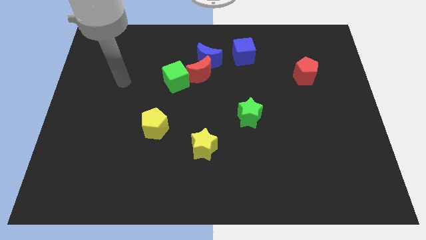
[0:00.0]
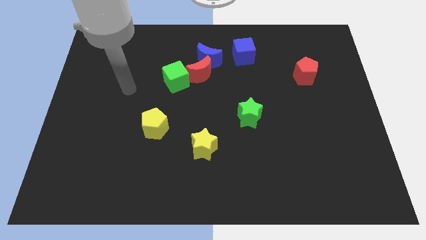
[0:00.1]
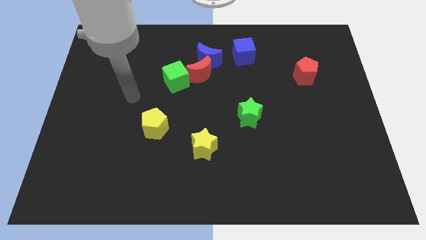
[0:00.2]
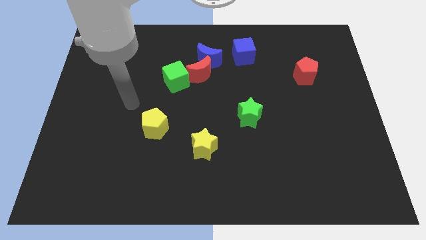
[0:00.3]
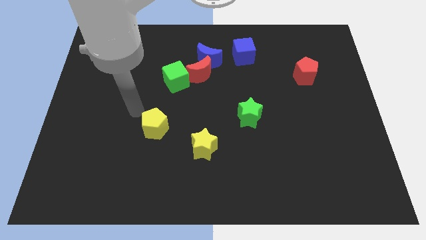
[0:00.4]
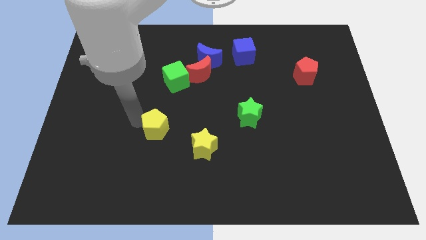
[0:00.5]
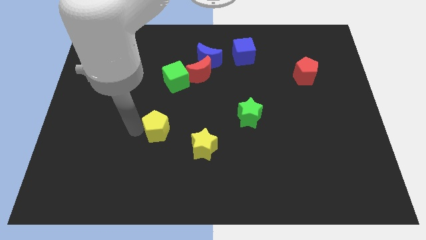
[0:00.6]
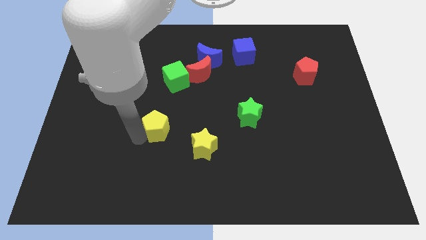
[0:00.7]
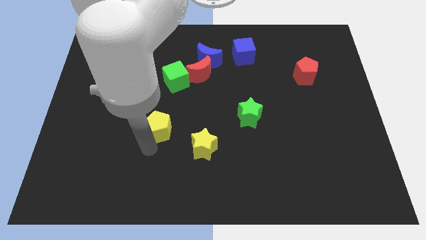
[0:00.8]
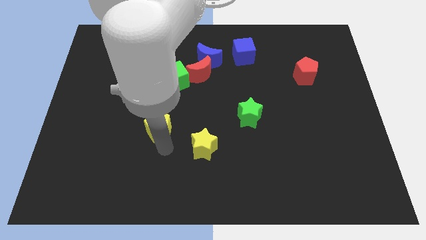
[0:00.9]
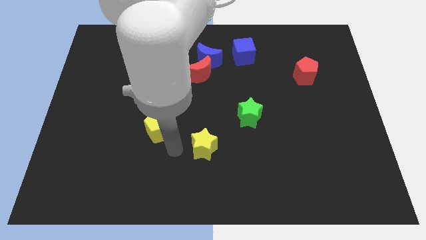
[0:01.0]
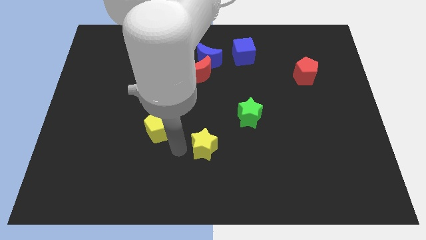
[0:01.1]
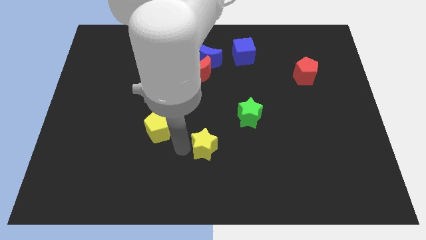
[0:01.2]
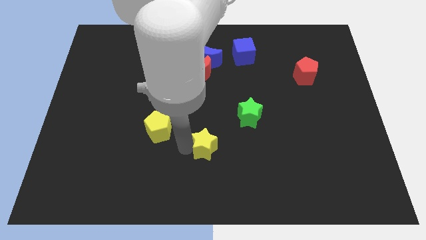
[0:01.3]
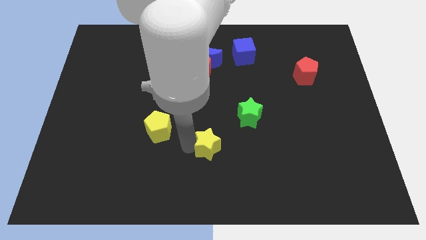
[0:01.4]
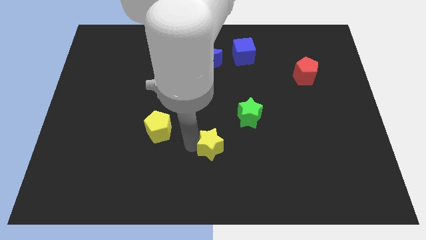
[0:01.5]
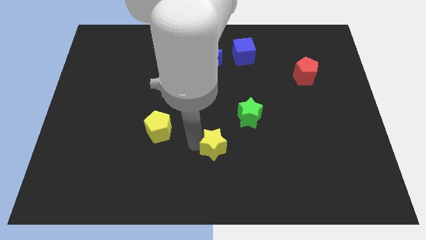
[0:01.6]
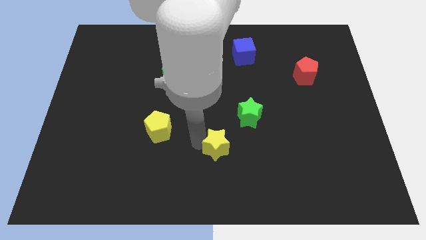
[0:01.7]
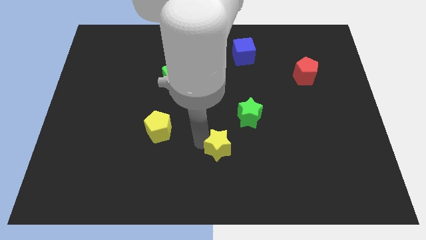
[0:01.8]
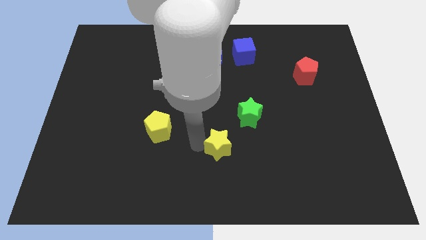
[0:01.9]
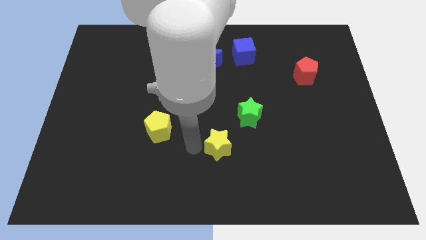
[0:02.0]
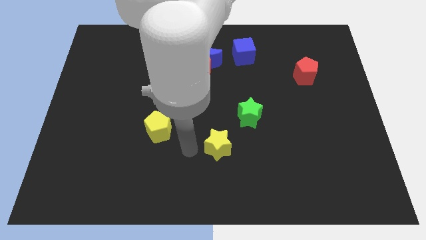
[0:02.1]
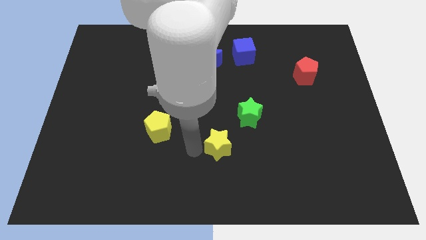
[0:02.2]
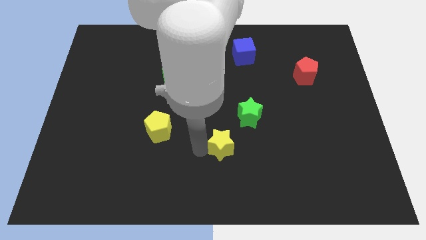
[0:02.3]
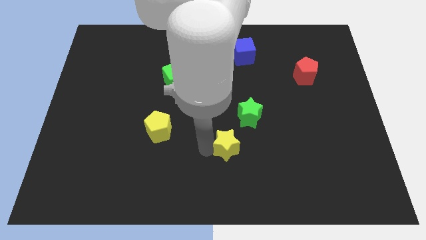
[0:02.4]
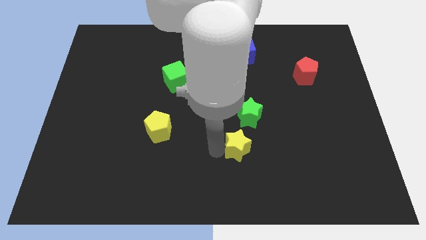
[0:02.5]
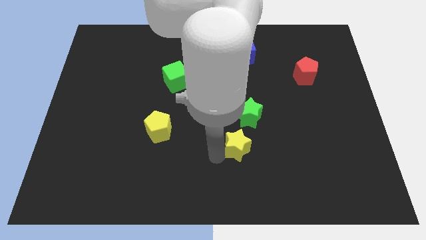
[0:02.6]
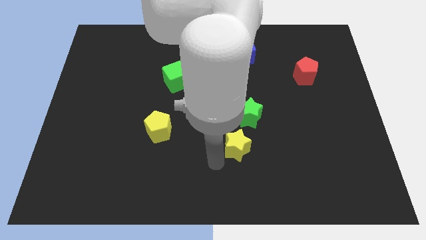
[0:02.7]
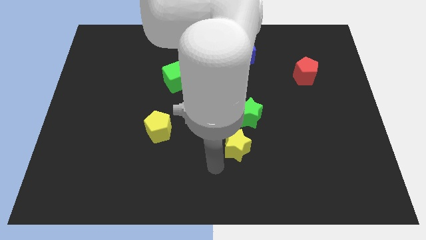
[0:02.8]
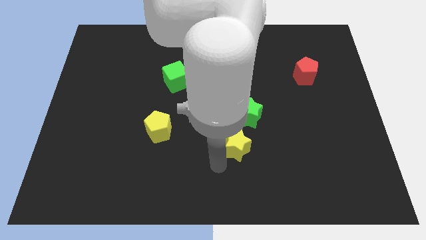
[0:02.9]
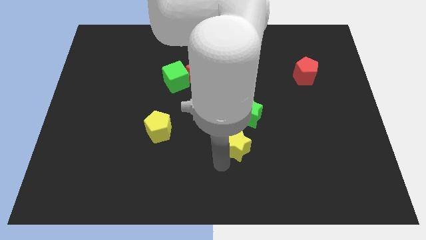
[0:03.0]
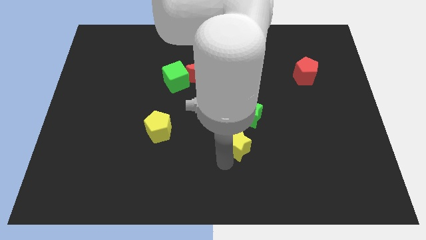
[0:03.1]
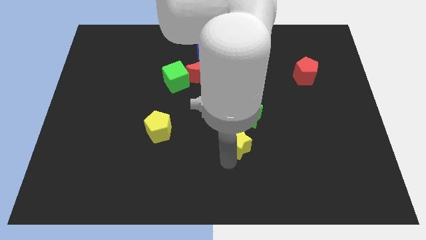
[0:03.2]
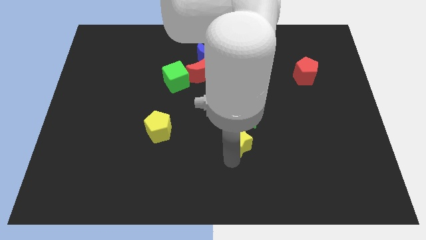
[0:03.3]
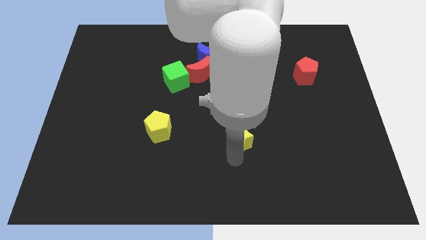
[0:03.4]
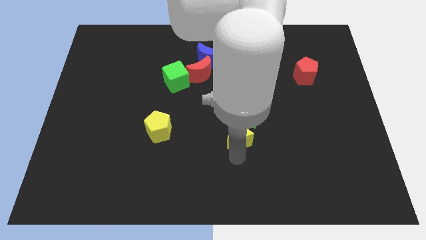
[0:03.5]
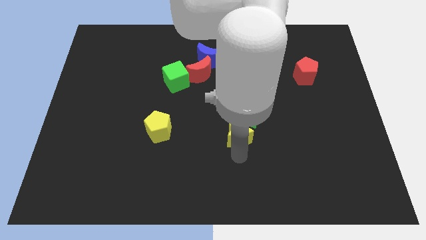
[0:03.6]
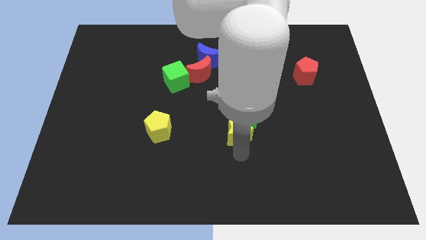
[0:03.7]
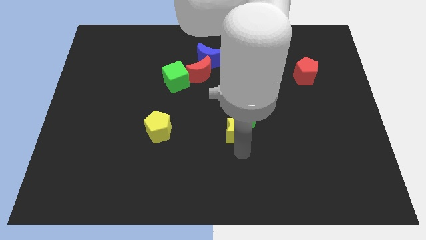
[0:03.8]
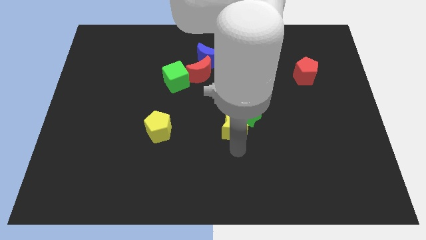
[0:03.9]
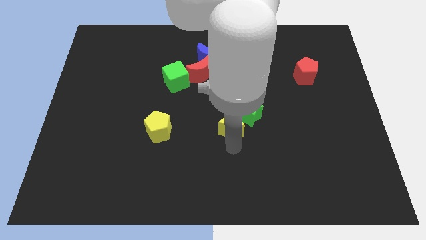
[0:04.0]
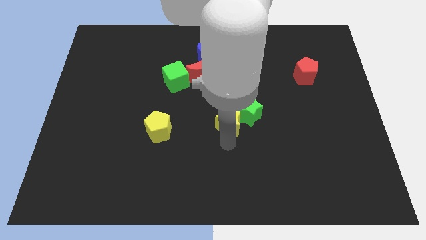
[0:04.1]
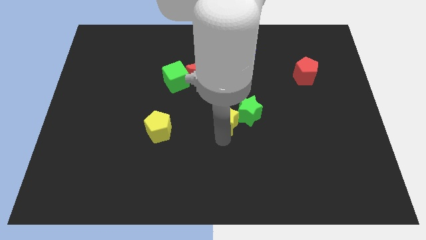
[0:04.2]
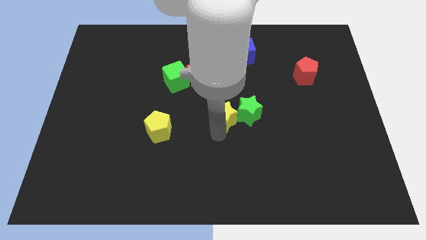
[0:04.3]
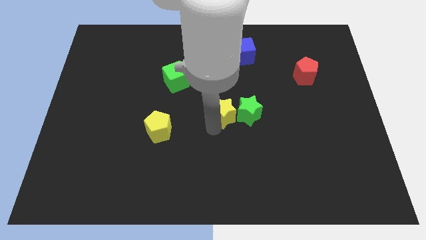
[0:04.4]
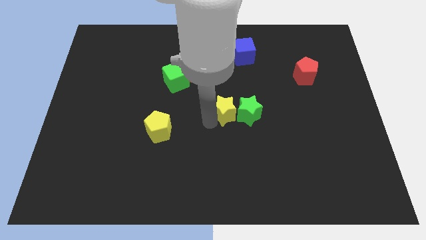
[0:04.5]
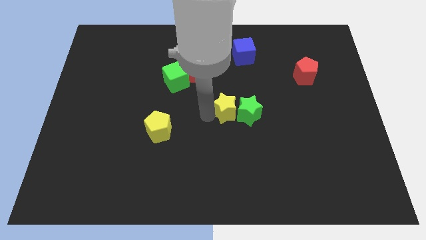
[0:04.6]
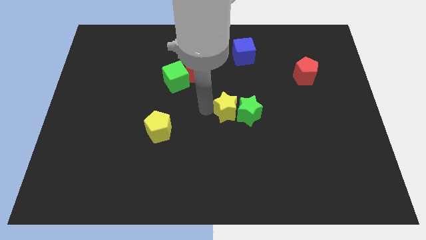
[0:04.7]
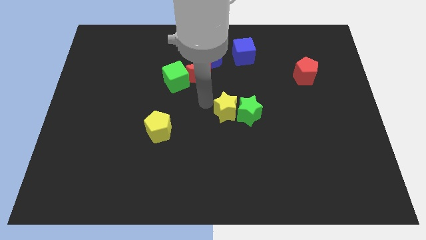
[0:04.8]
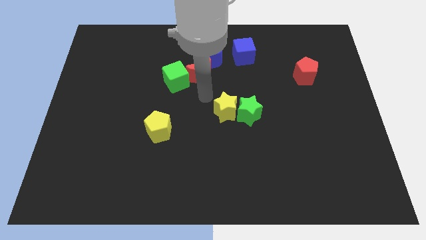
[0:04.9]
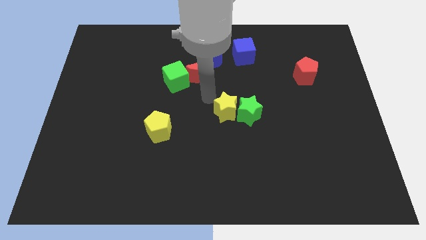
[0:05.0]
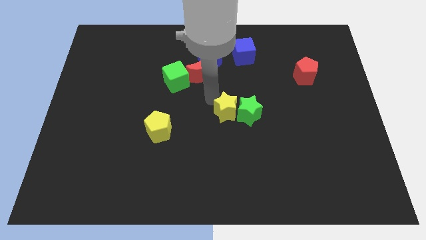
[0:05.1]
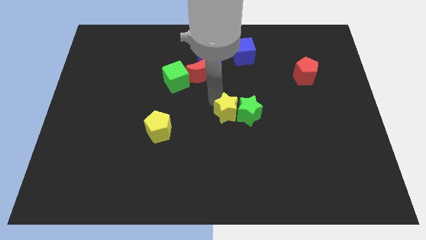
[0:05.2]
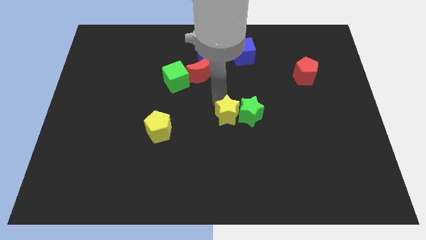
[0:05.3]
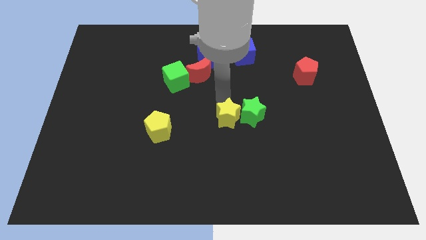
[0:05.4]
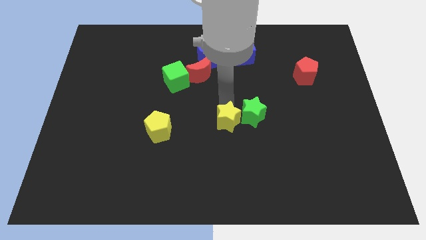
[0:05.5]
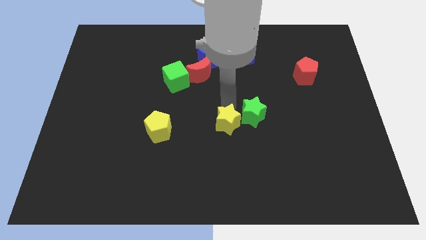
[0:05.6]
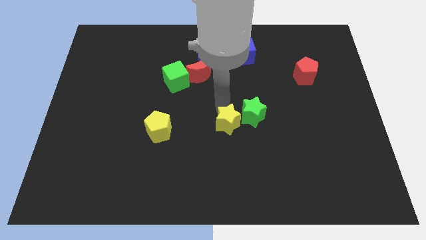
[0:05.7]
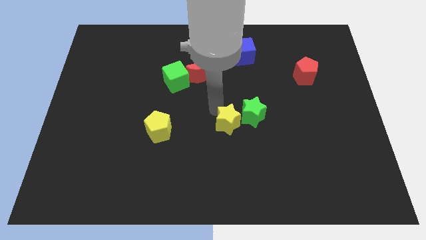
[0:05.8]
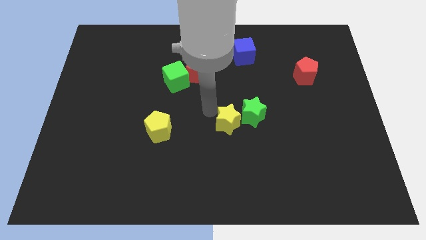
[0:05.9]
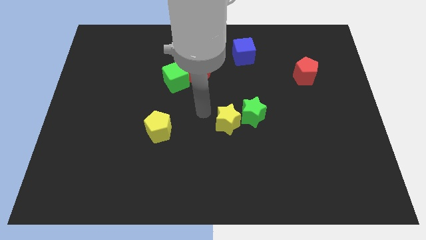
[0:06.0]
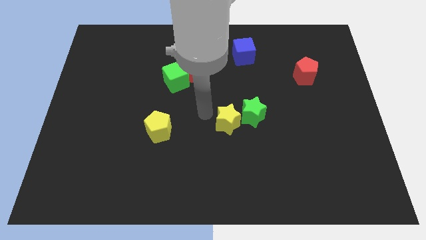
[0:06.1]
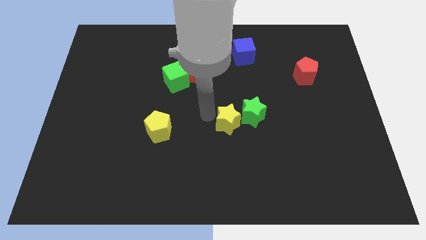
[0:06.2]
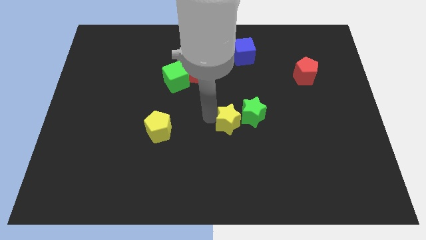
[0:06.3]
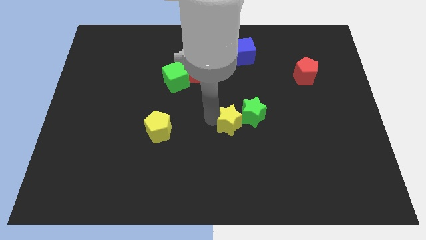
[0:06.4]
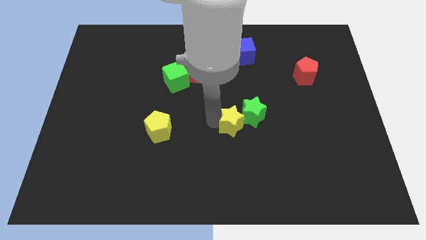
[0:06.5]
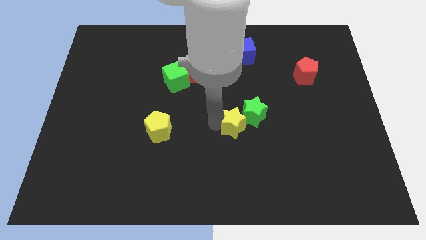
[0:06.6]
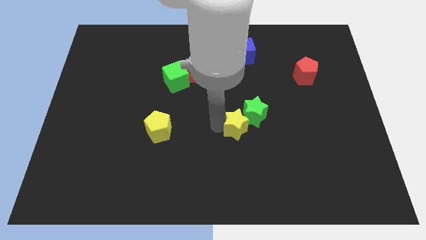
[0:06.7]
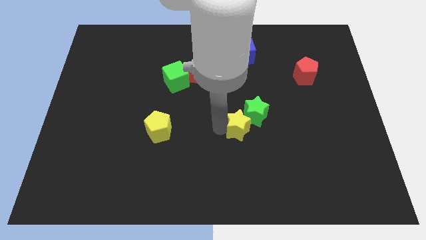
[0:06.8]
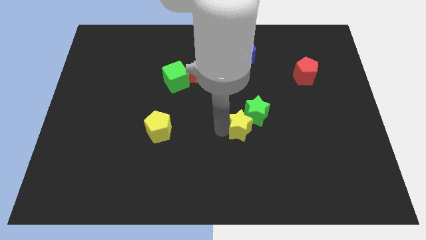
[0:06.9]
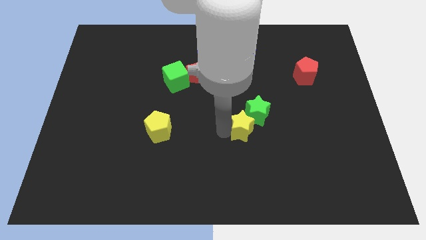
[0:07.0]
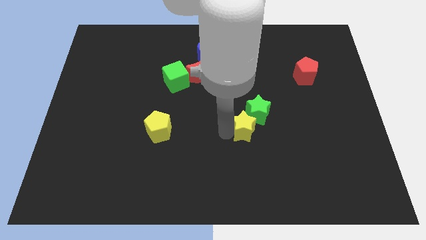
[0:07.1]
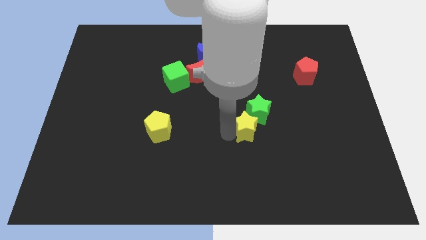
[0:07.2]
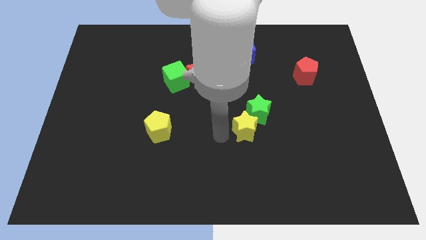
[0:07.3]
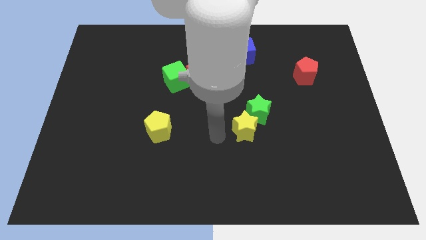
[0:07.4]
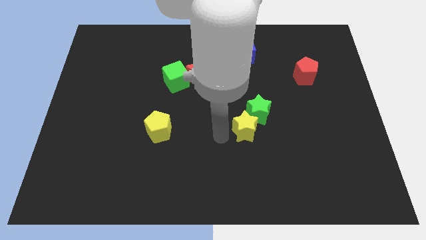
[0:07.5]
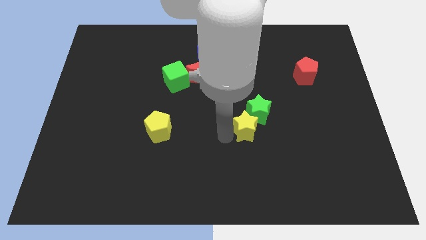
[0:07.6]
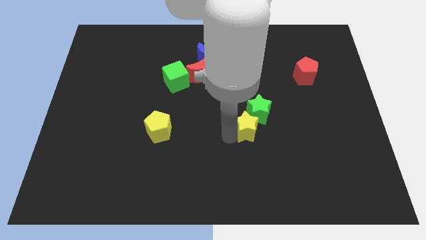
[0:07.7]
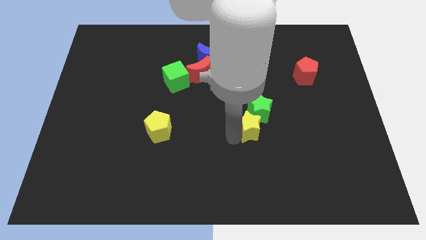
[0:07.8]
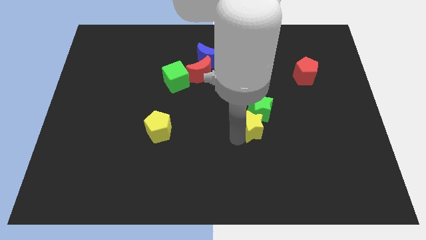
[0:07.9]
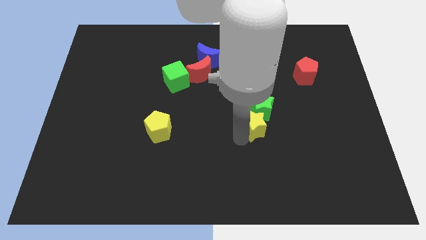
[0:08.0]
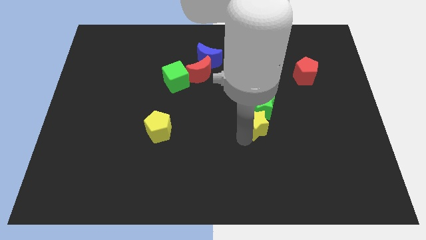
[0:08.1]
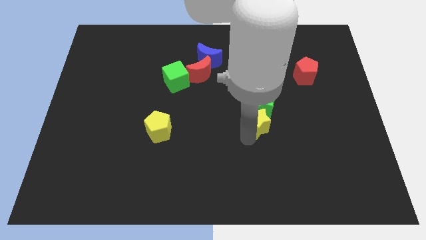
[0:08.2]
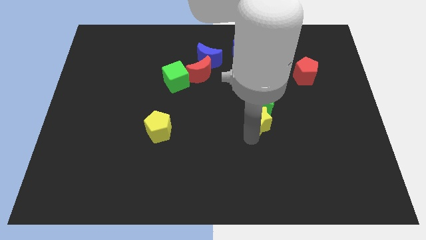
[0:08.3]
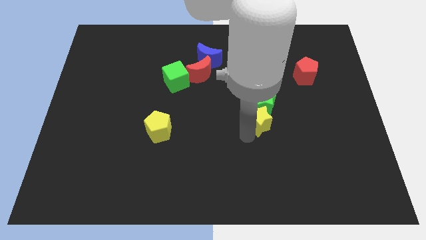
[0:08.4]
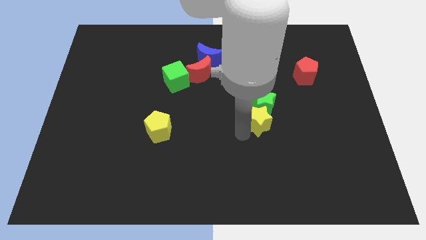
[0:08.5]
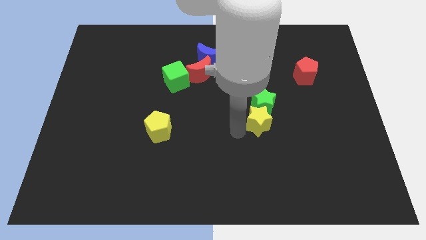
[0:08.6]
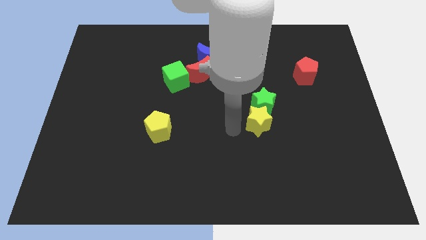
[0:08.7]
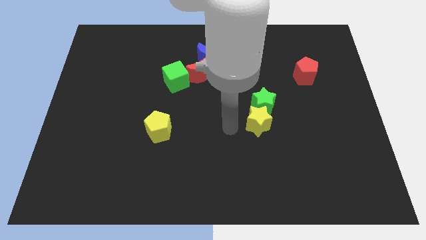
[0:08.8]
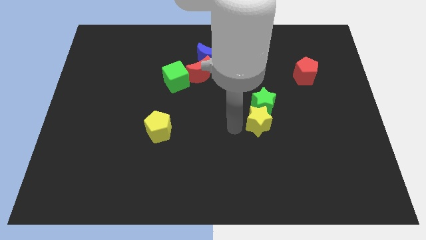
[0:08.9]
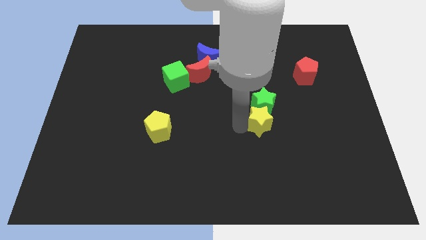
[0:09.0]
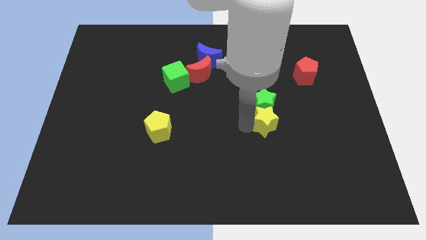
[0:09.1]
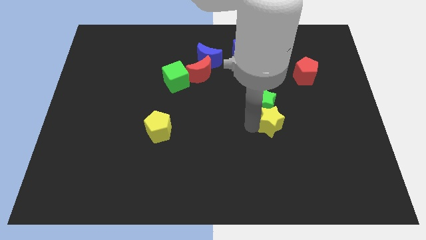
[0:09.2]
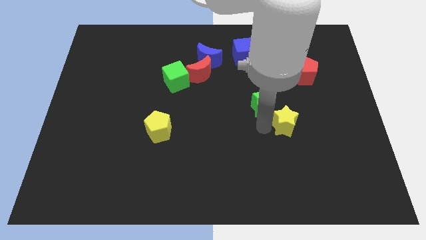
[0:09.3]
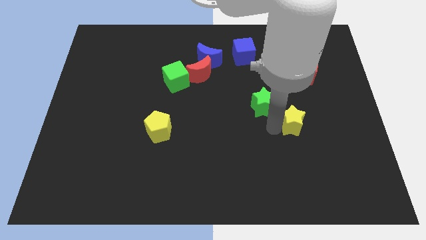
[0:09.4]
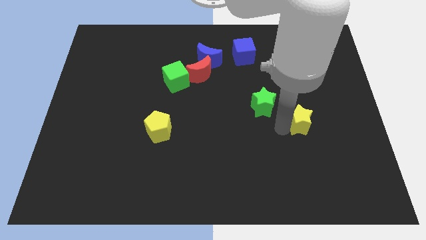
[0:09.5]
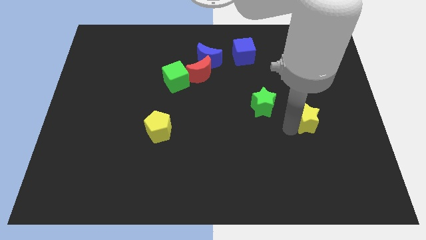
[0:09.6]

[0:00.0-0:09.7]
push the yellow star right of the green star
